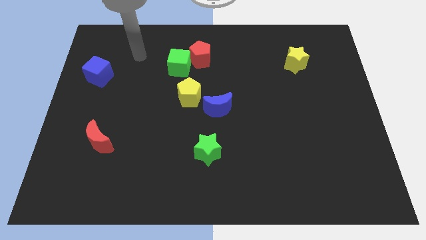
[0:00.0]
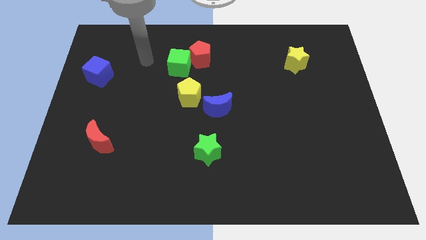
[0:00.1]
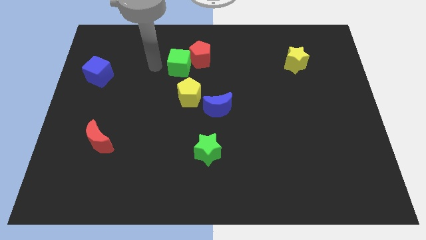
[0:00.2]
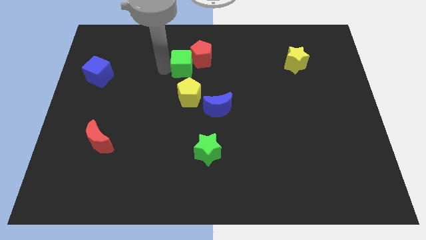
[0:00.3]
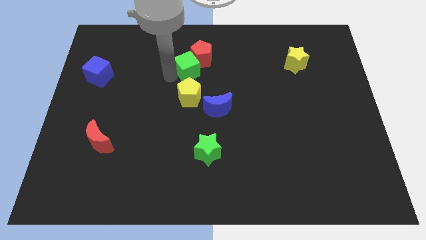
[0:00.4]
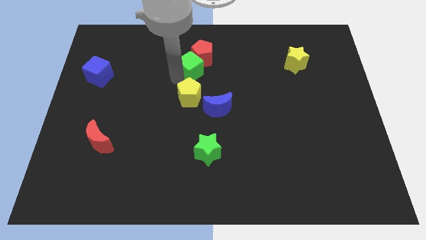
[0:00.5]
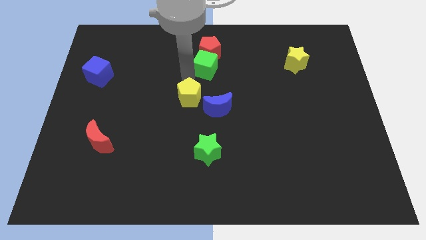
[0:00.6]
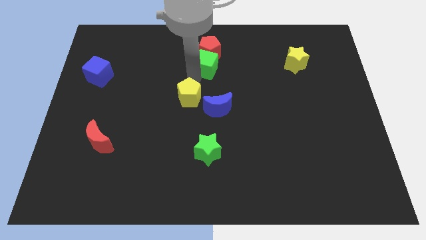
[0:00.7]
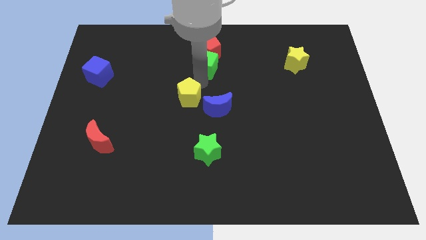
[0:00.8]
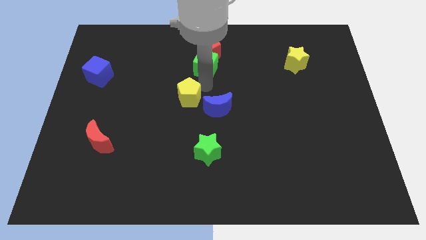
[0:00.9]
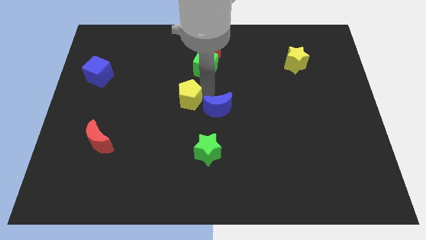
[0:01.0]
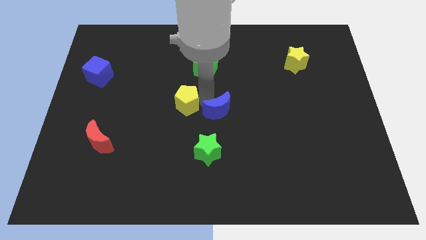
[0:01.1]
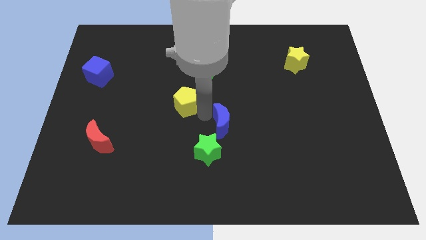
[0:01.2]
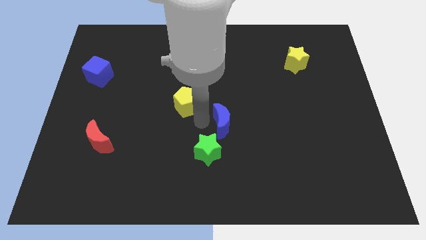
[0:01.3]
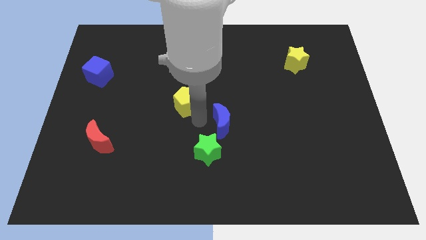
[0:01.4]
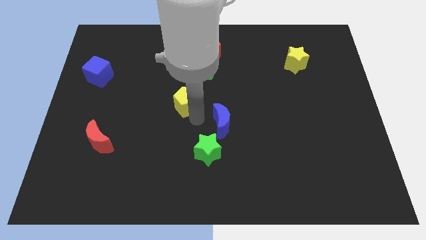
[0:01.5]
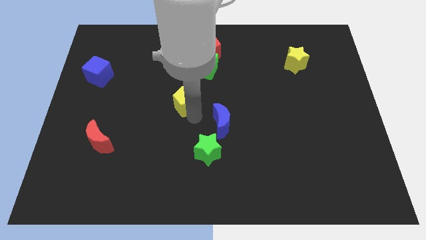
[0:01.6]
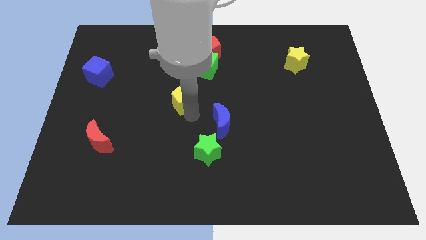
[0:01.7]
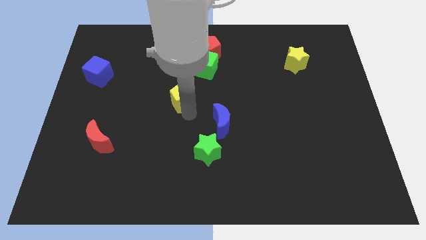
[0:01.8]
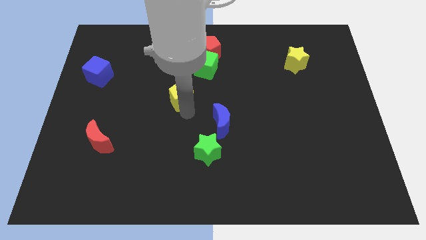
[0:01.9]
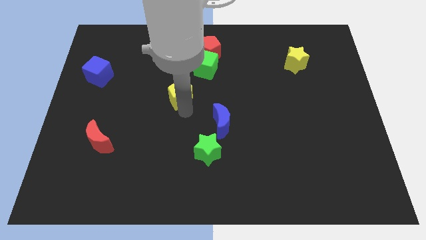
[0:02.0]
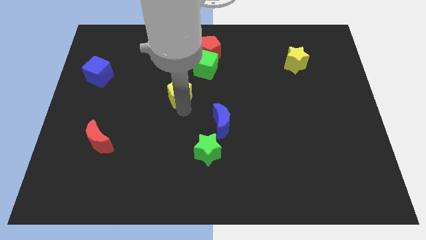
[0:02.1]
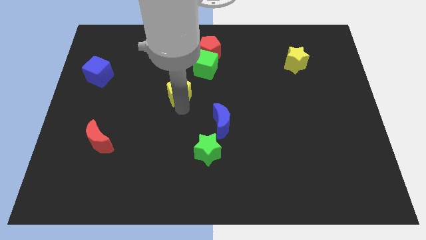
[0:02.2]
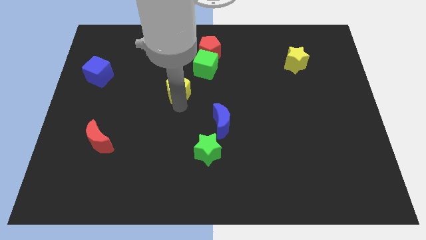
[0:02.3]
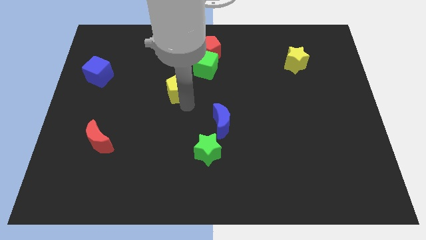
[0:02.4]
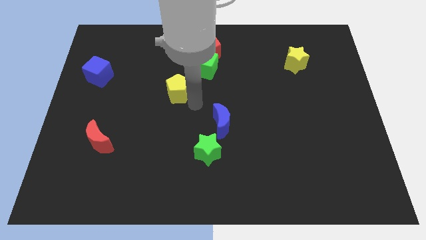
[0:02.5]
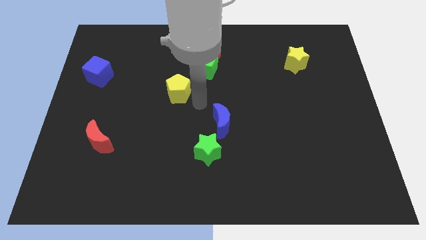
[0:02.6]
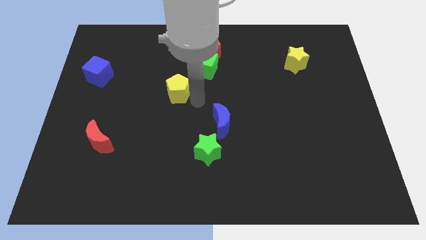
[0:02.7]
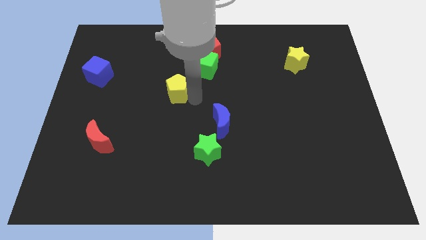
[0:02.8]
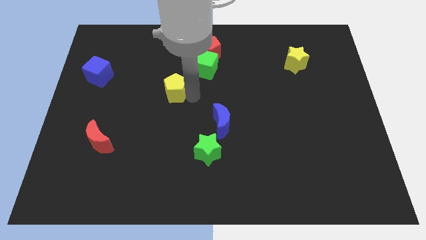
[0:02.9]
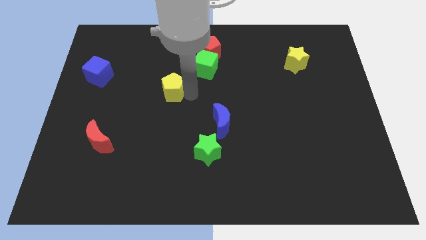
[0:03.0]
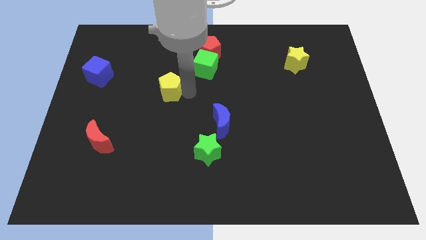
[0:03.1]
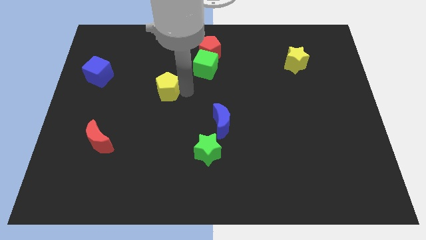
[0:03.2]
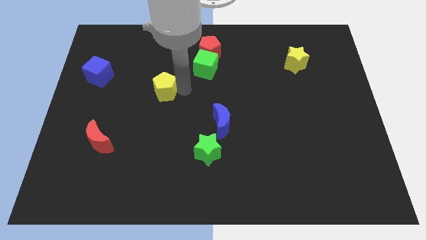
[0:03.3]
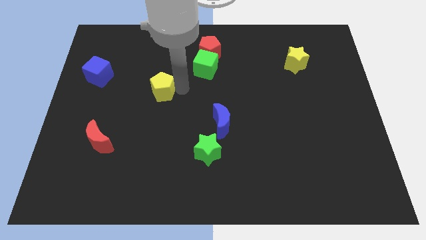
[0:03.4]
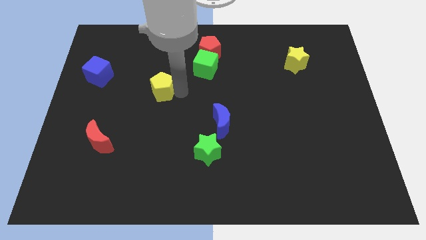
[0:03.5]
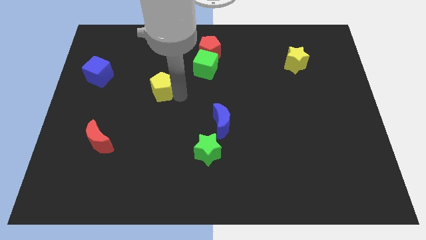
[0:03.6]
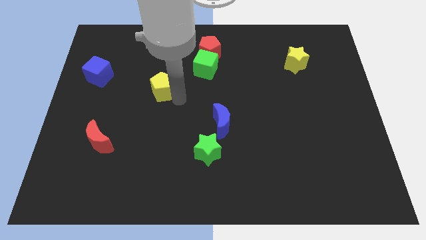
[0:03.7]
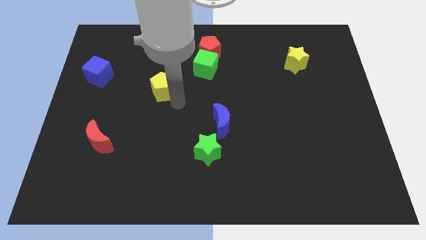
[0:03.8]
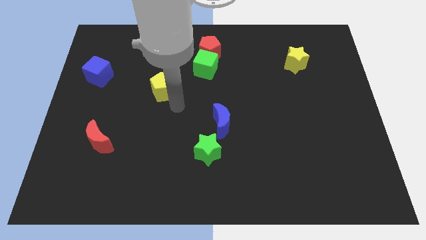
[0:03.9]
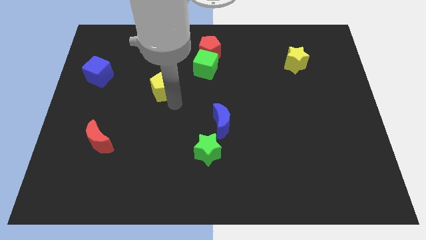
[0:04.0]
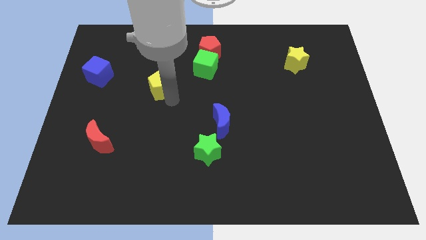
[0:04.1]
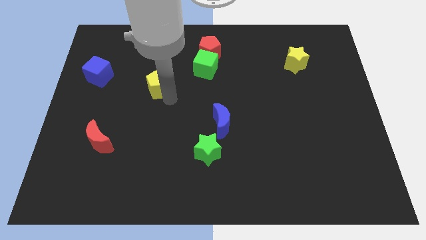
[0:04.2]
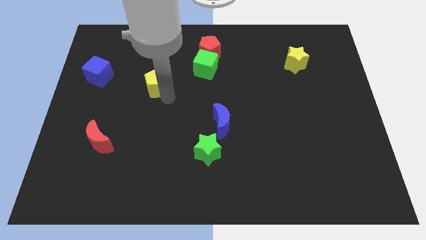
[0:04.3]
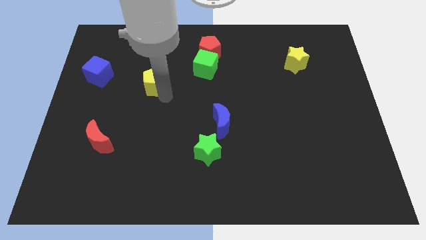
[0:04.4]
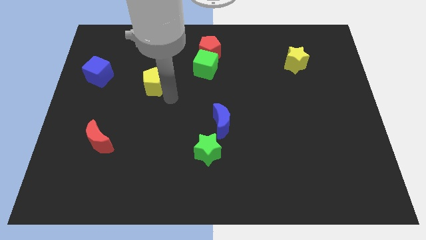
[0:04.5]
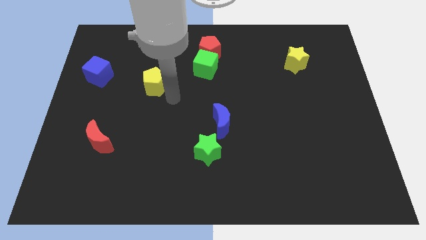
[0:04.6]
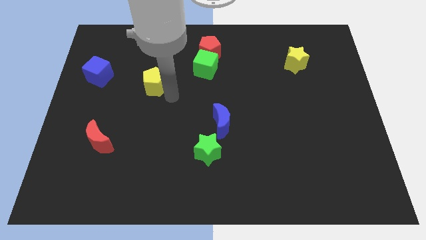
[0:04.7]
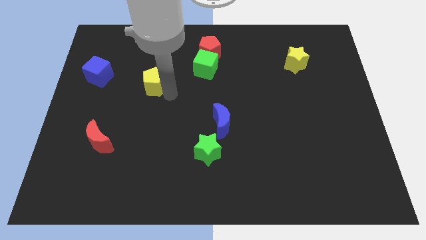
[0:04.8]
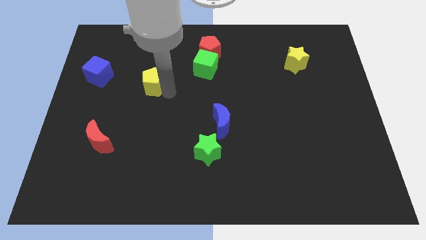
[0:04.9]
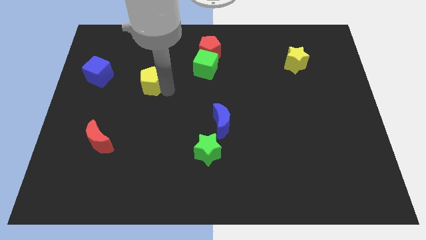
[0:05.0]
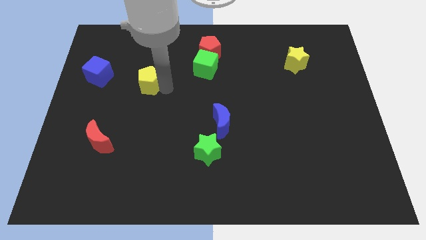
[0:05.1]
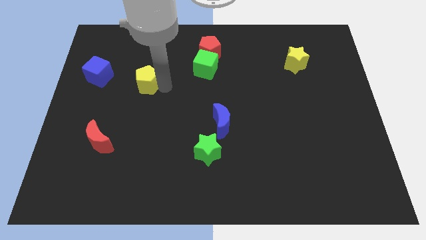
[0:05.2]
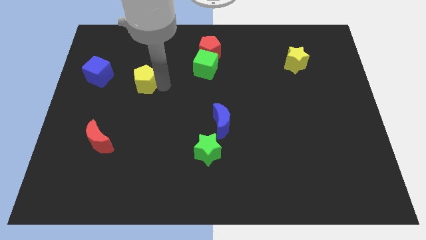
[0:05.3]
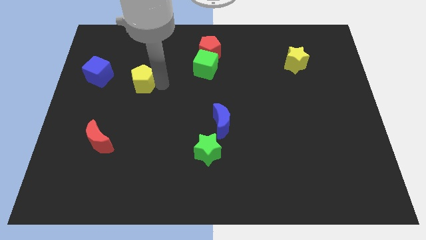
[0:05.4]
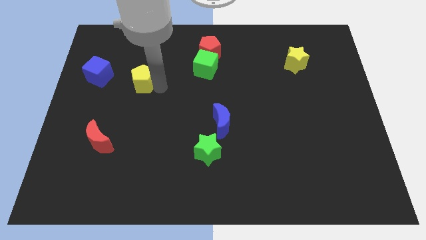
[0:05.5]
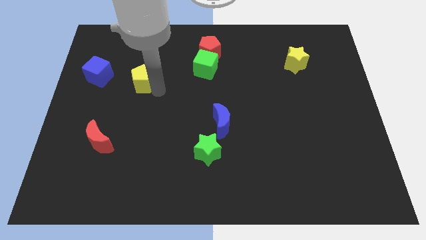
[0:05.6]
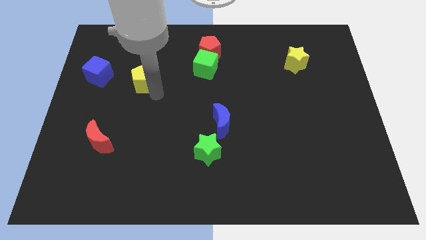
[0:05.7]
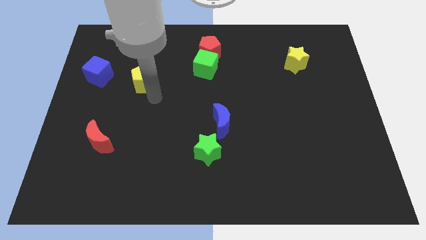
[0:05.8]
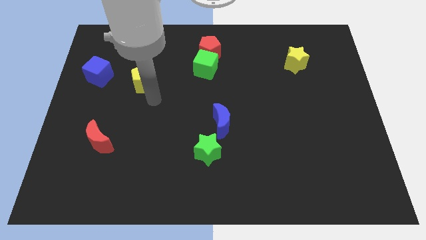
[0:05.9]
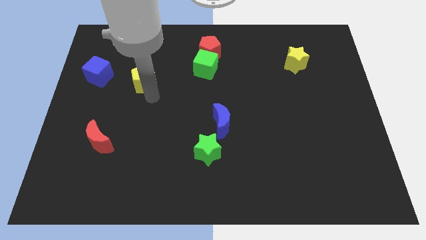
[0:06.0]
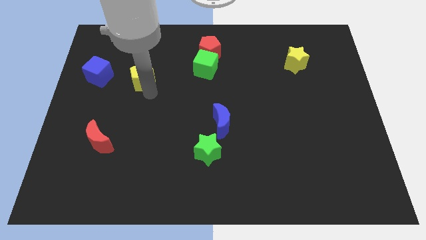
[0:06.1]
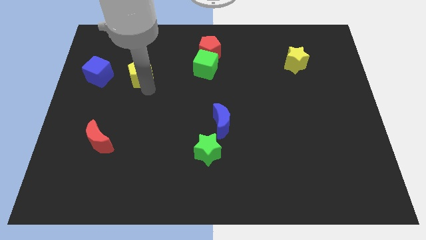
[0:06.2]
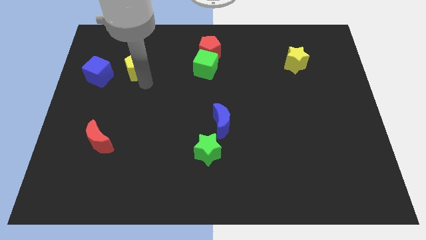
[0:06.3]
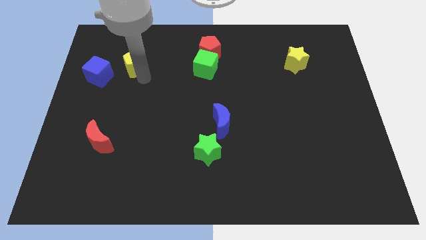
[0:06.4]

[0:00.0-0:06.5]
push the yellow pentagon to the top right side of the blue cube

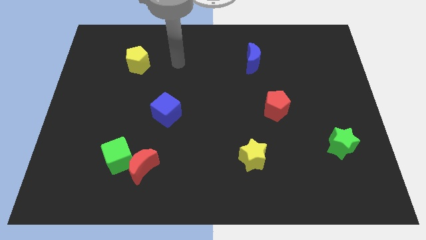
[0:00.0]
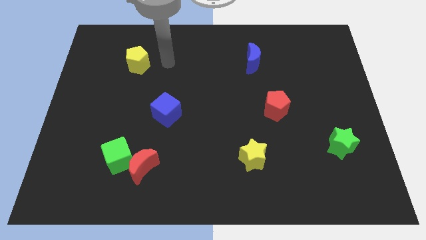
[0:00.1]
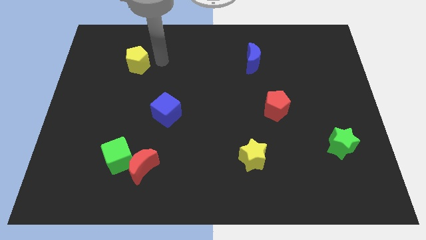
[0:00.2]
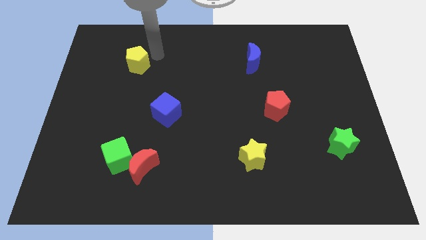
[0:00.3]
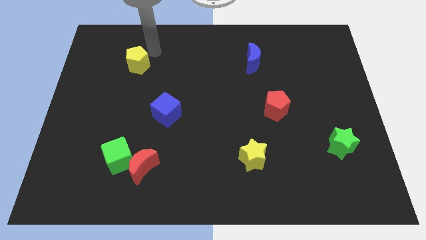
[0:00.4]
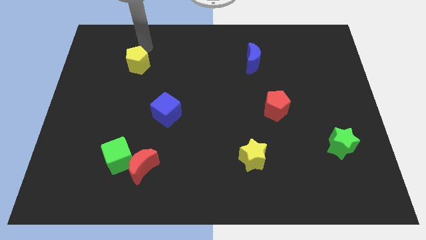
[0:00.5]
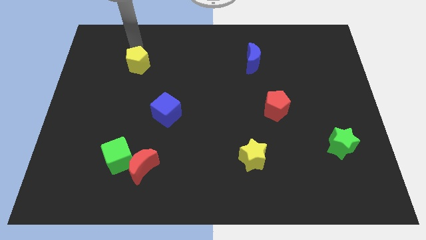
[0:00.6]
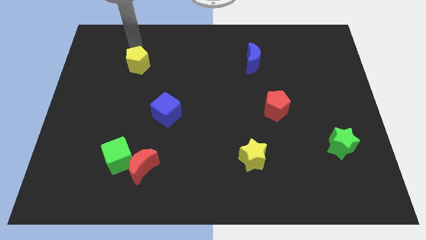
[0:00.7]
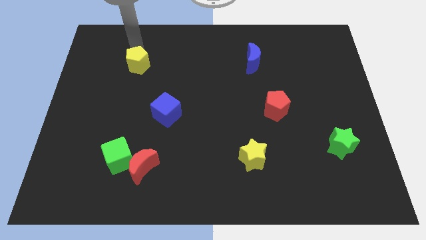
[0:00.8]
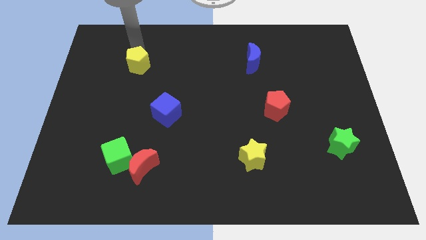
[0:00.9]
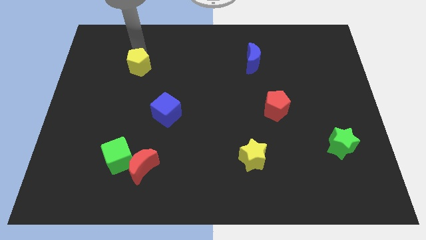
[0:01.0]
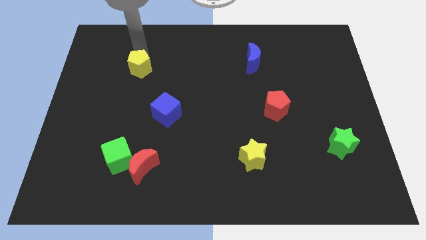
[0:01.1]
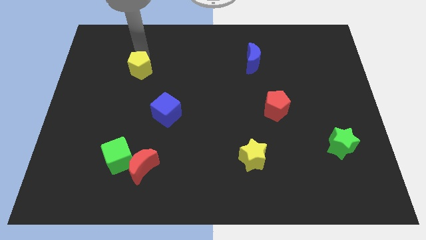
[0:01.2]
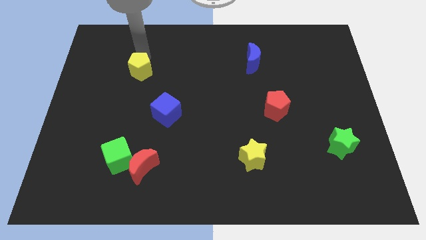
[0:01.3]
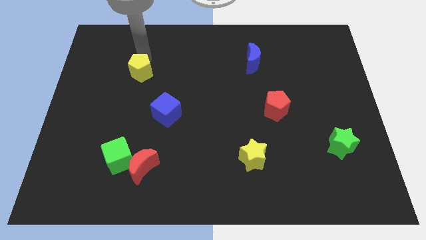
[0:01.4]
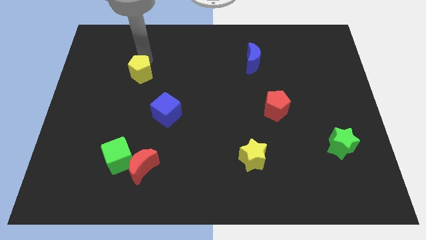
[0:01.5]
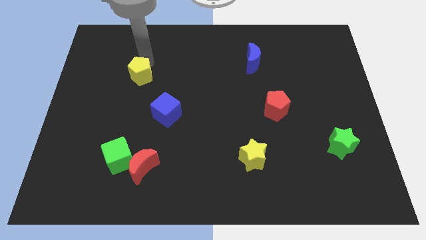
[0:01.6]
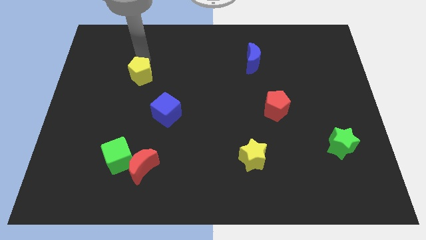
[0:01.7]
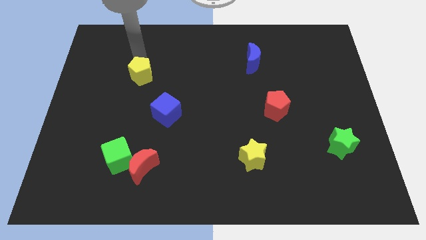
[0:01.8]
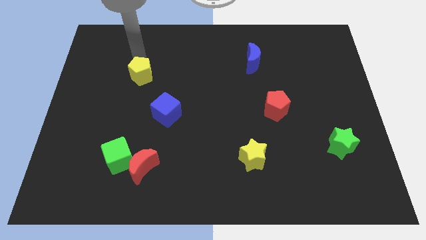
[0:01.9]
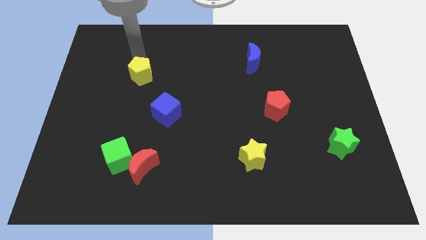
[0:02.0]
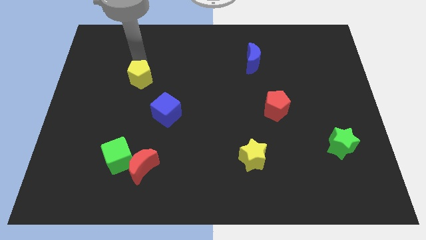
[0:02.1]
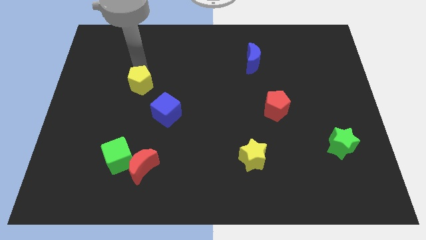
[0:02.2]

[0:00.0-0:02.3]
put the yellow pentagon to the top left side of the blue cube
